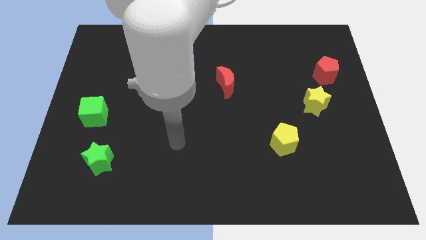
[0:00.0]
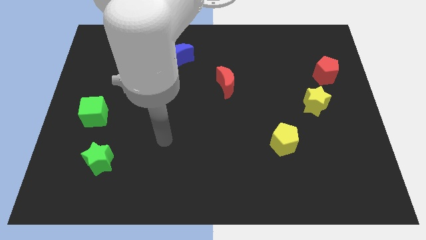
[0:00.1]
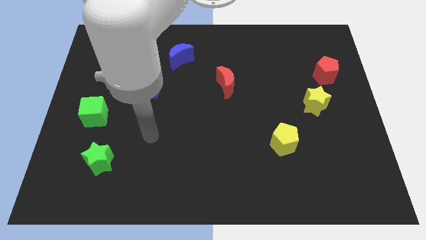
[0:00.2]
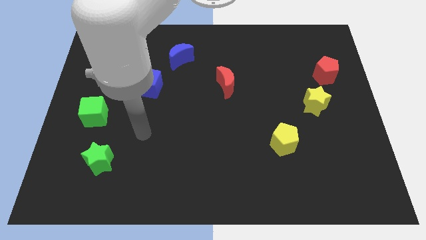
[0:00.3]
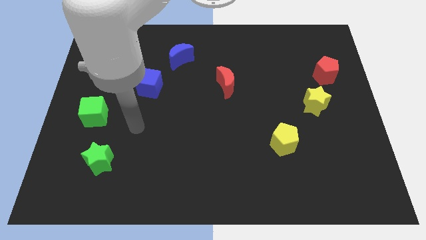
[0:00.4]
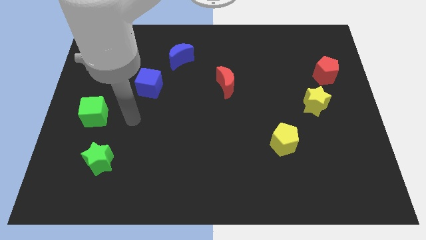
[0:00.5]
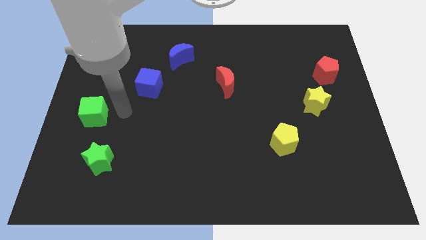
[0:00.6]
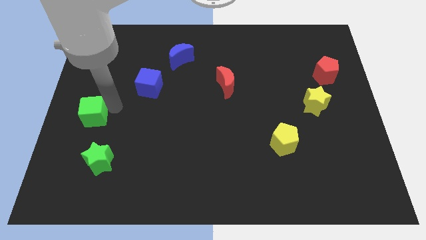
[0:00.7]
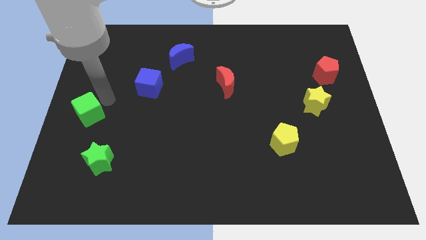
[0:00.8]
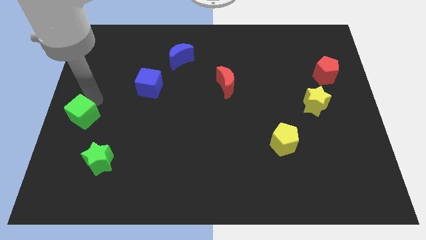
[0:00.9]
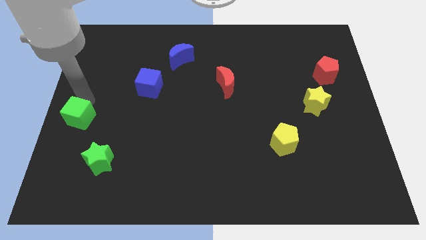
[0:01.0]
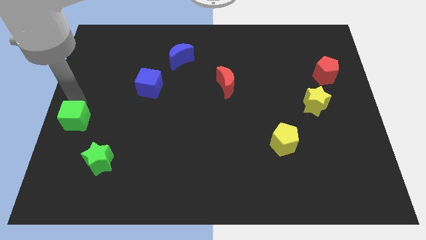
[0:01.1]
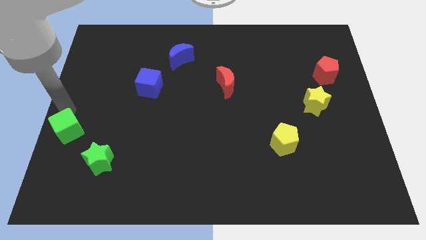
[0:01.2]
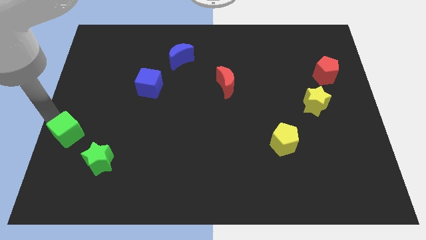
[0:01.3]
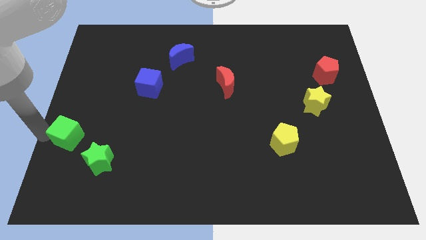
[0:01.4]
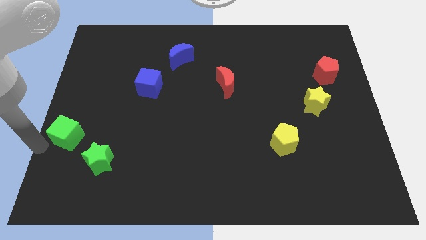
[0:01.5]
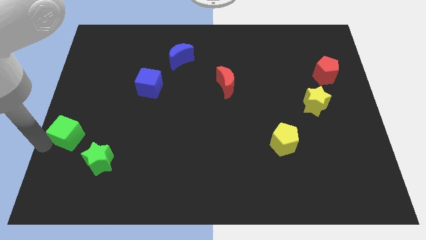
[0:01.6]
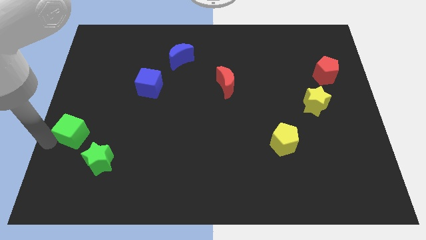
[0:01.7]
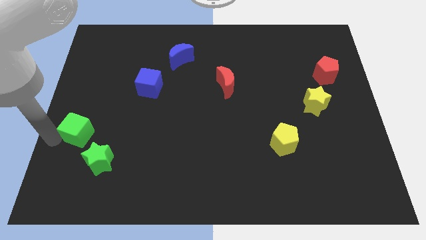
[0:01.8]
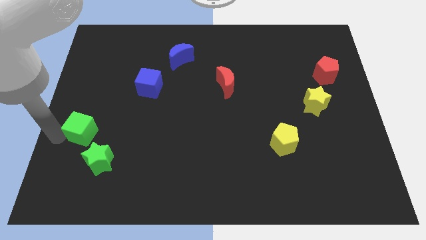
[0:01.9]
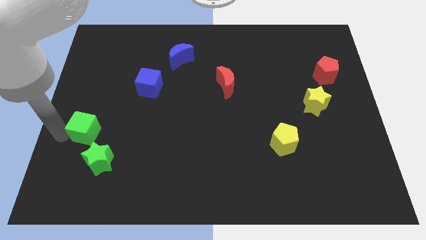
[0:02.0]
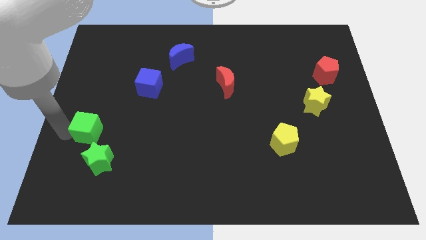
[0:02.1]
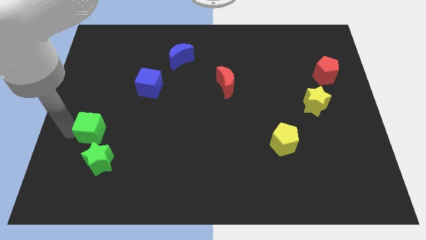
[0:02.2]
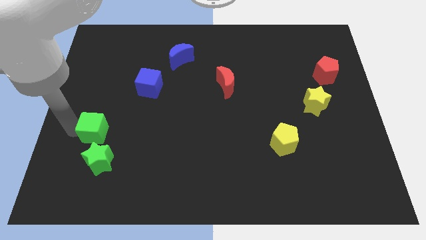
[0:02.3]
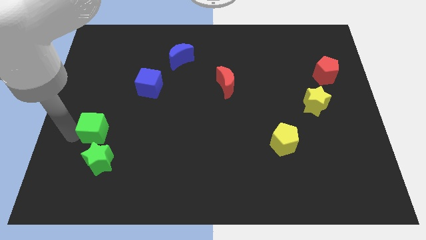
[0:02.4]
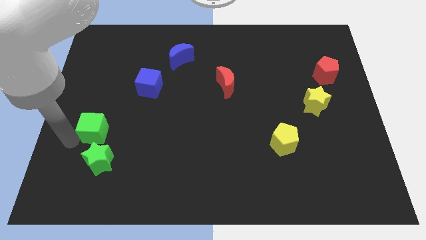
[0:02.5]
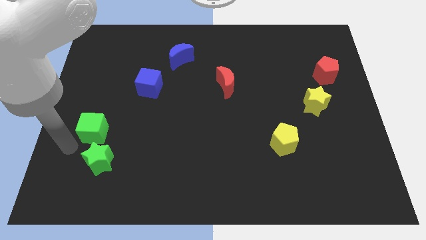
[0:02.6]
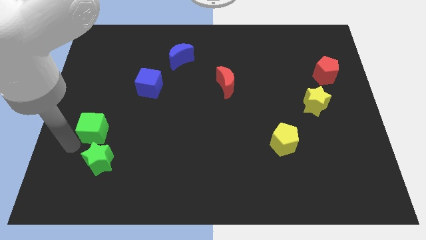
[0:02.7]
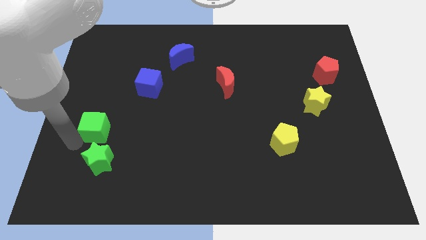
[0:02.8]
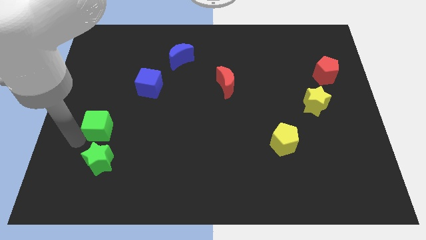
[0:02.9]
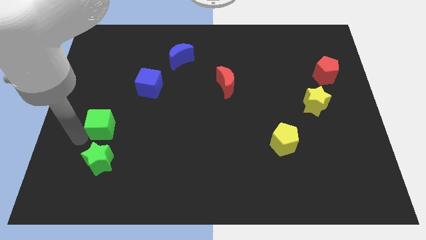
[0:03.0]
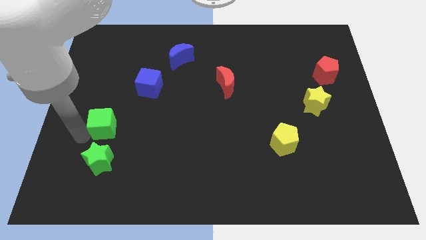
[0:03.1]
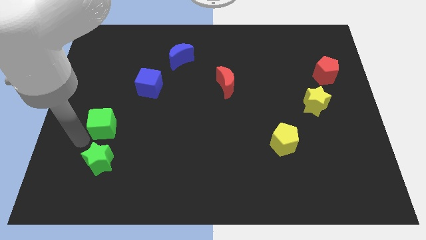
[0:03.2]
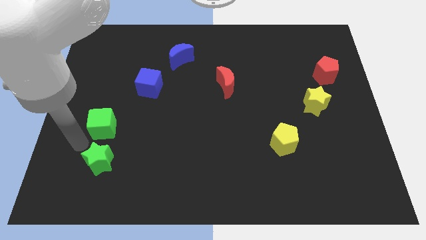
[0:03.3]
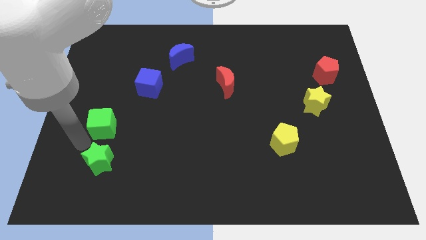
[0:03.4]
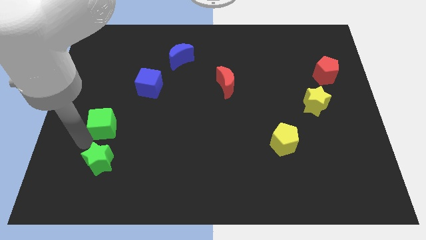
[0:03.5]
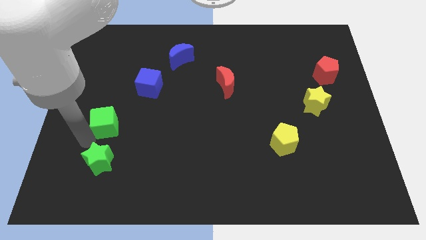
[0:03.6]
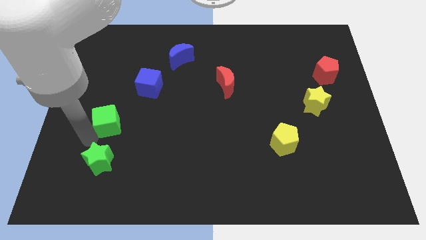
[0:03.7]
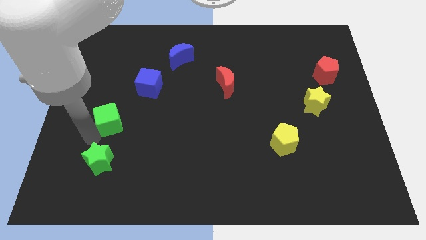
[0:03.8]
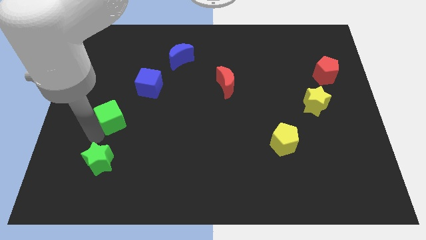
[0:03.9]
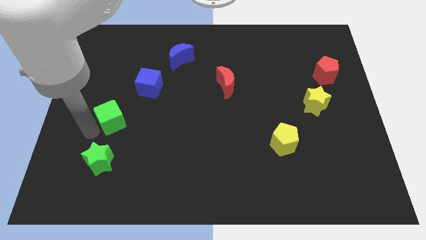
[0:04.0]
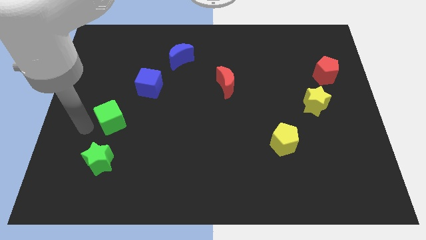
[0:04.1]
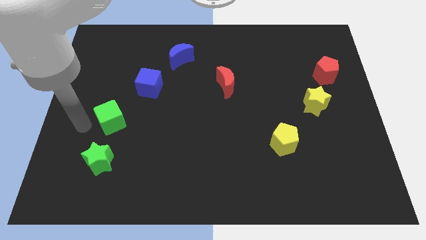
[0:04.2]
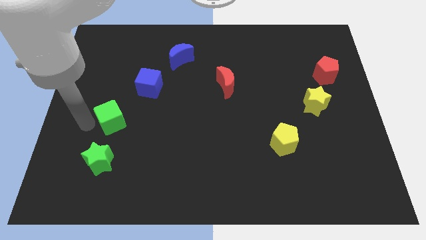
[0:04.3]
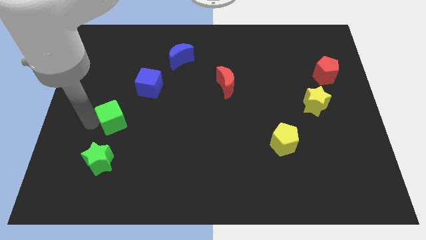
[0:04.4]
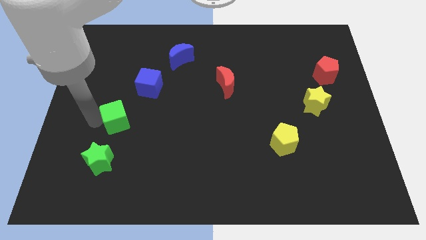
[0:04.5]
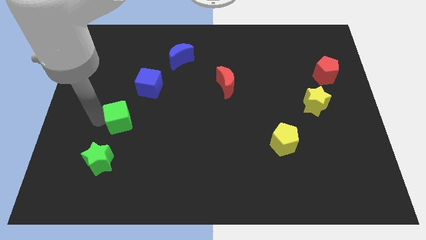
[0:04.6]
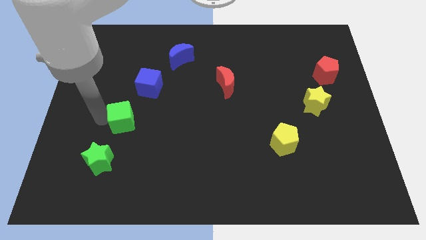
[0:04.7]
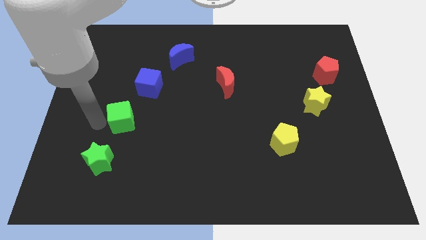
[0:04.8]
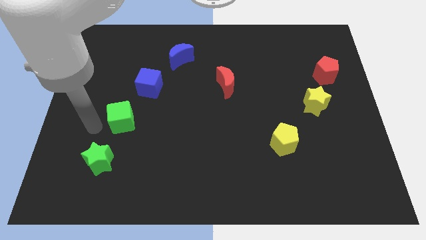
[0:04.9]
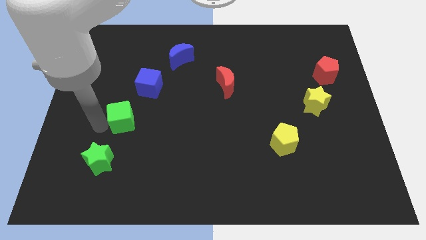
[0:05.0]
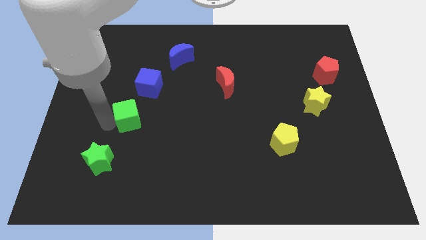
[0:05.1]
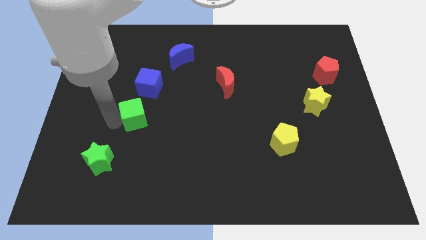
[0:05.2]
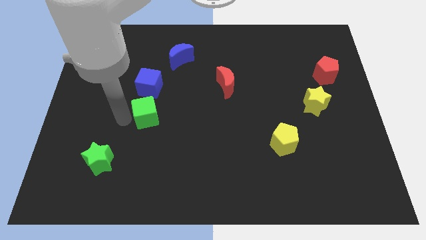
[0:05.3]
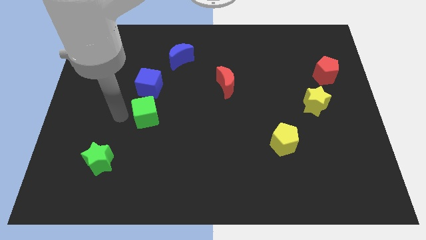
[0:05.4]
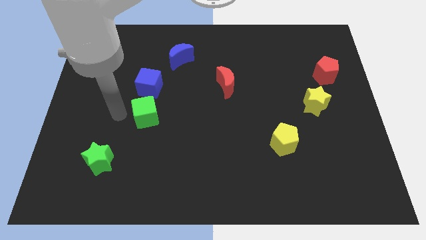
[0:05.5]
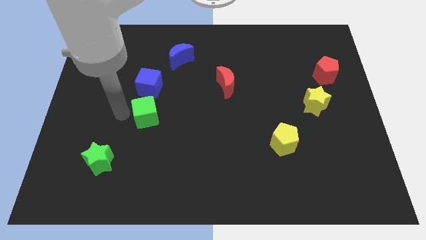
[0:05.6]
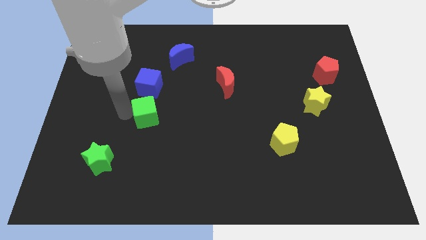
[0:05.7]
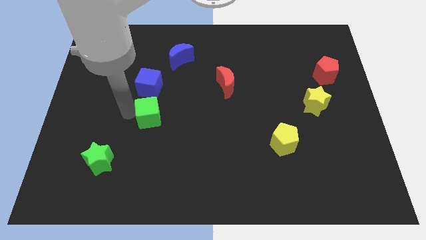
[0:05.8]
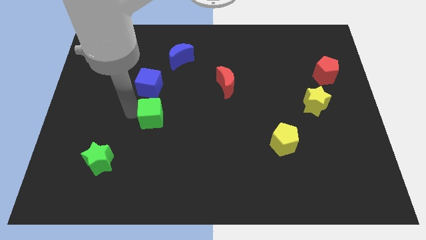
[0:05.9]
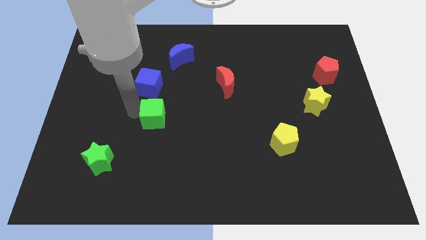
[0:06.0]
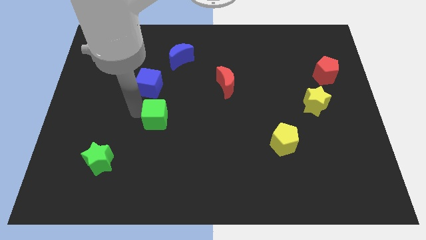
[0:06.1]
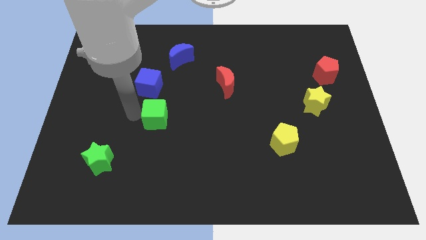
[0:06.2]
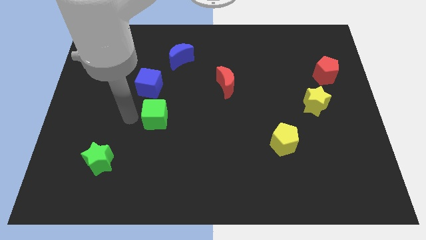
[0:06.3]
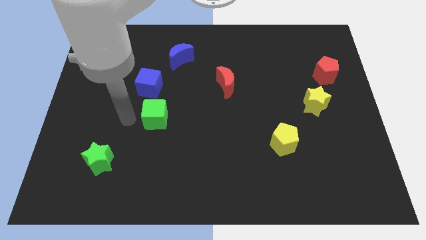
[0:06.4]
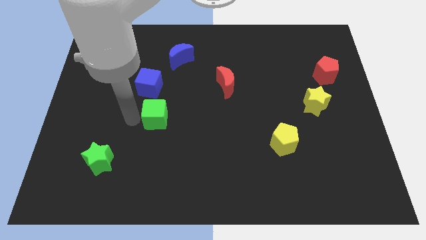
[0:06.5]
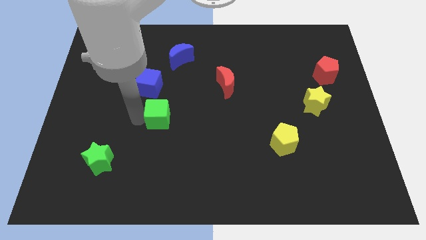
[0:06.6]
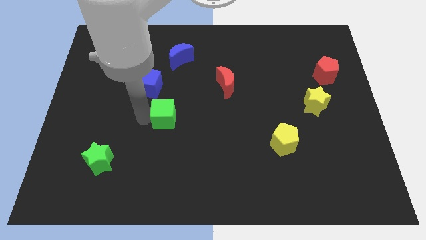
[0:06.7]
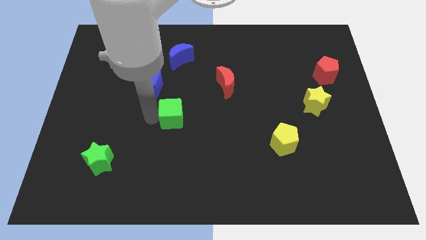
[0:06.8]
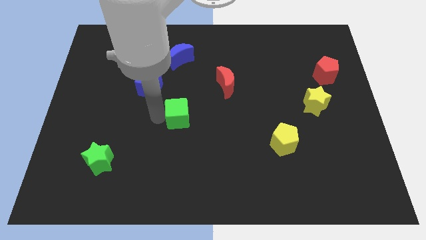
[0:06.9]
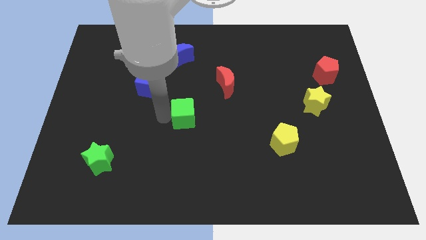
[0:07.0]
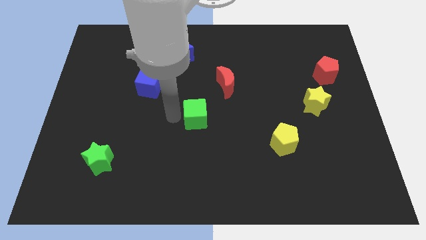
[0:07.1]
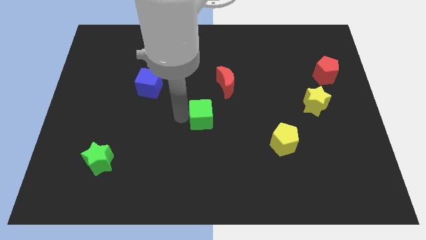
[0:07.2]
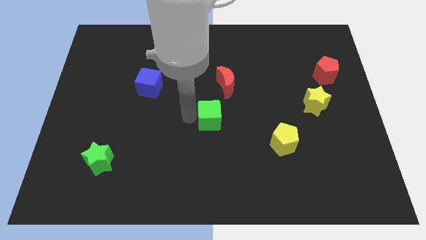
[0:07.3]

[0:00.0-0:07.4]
move the green cube to the bottom of the red moon
